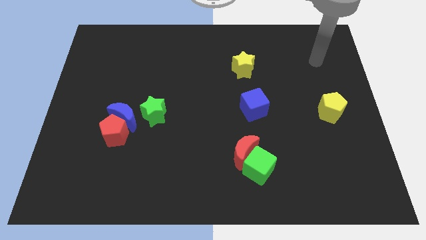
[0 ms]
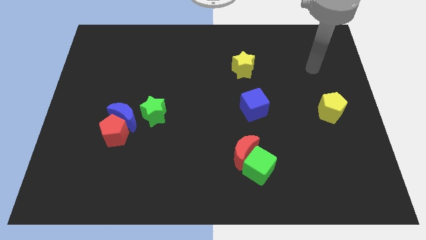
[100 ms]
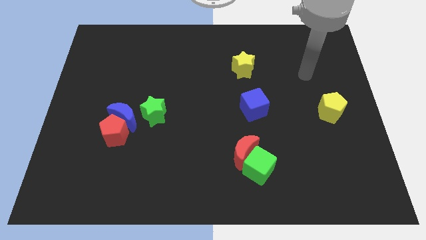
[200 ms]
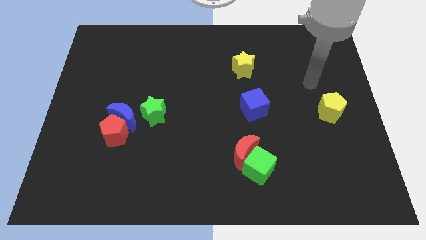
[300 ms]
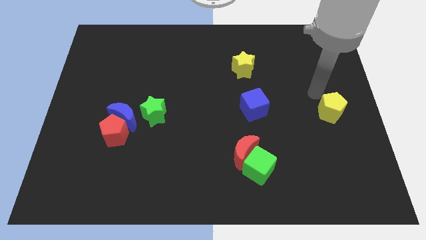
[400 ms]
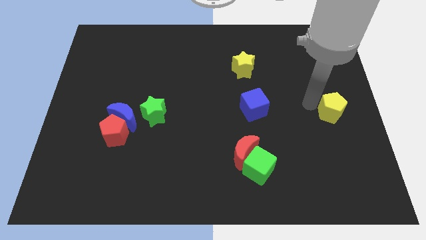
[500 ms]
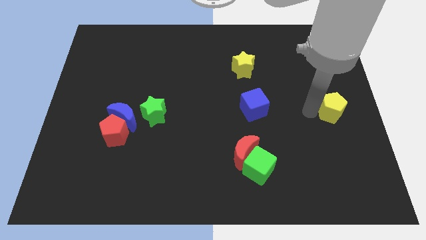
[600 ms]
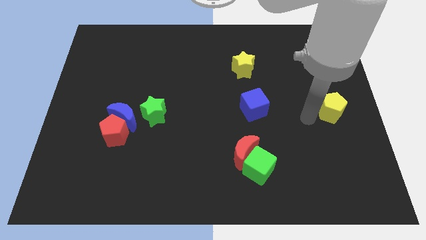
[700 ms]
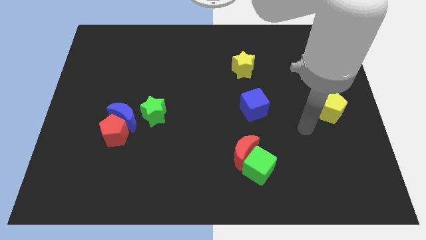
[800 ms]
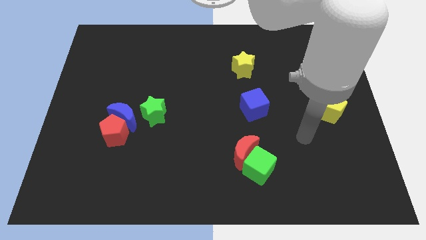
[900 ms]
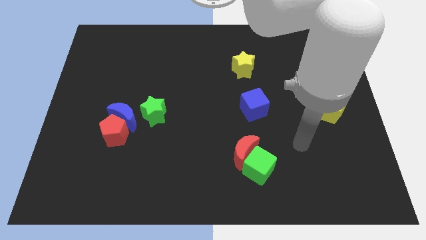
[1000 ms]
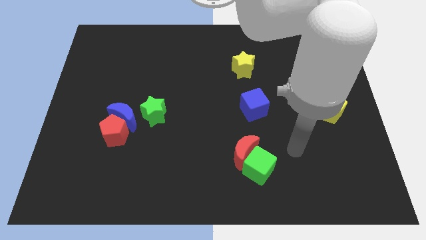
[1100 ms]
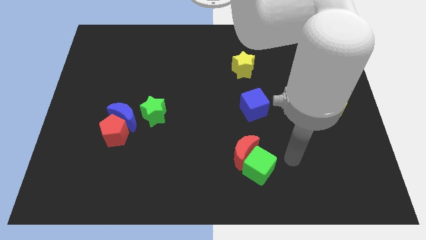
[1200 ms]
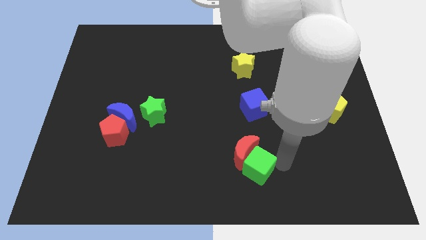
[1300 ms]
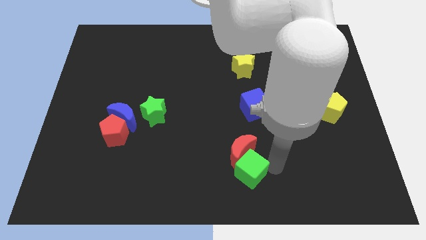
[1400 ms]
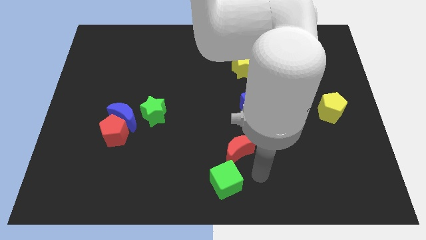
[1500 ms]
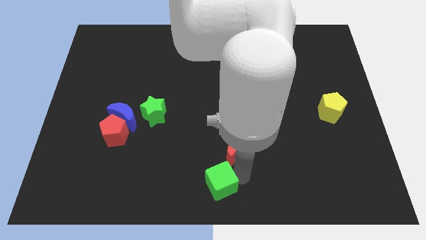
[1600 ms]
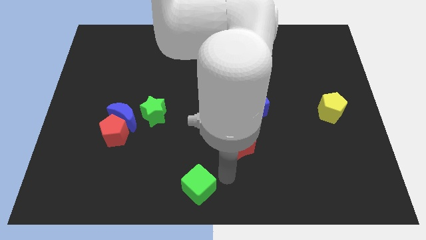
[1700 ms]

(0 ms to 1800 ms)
separate the red moon from the green cube

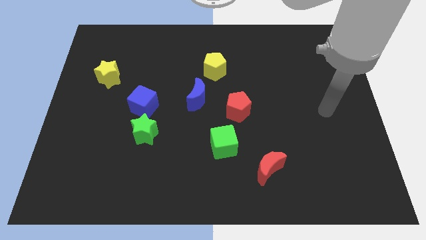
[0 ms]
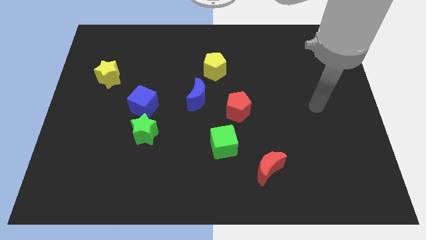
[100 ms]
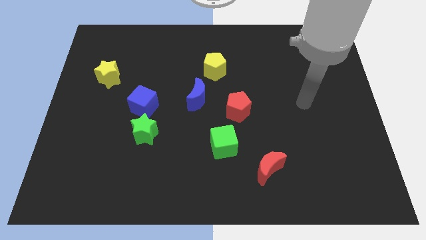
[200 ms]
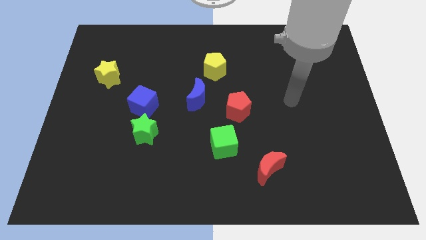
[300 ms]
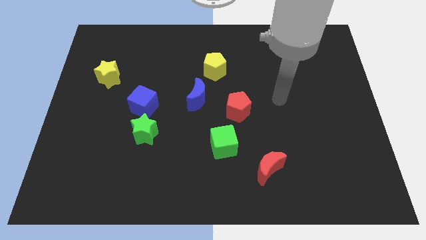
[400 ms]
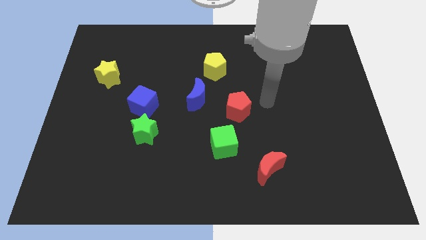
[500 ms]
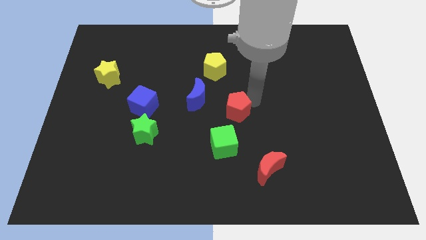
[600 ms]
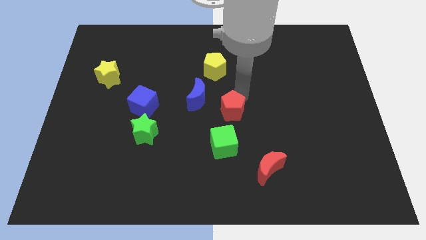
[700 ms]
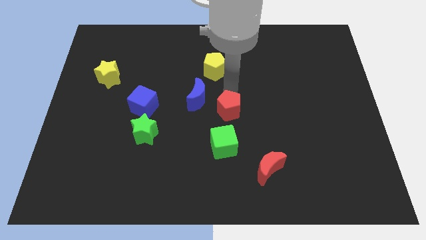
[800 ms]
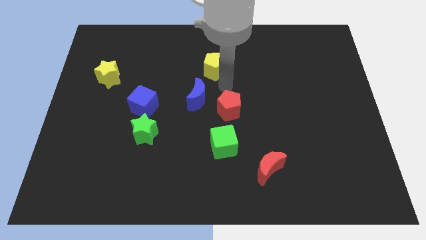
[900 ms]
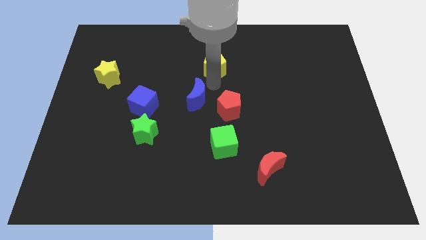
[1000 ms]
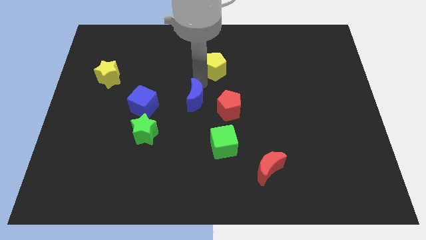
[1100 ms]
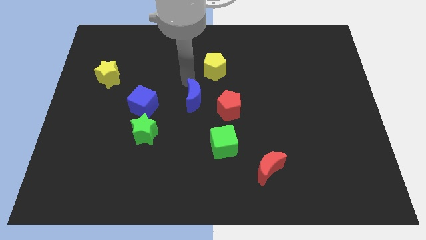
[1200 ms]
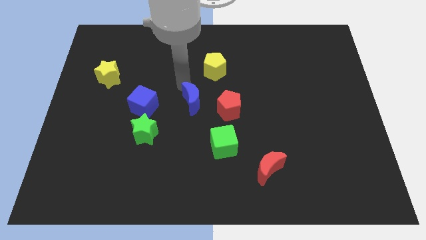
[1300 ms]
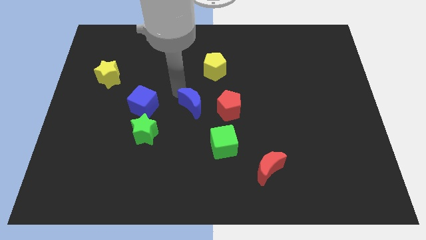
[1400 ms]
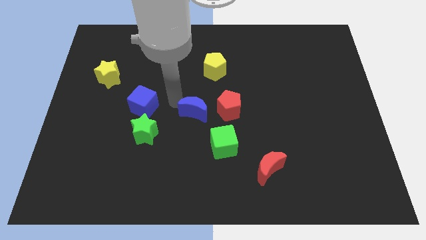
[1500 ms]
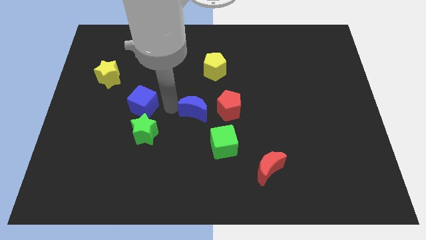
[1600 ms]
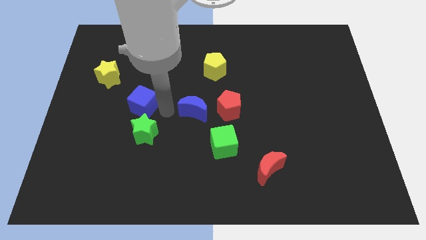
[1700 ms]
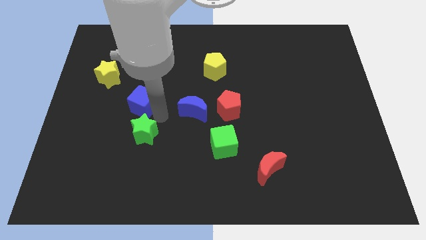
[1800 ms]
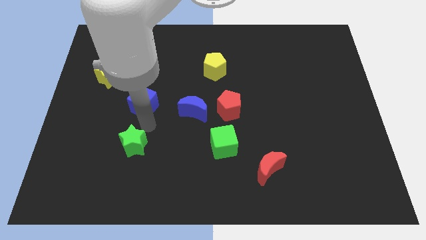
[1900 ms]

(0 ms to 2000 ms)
separate the blue cube from the green star

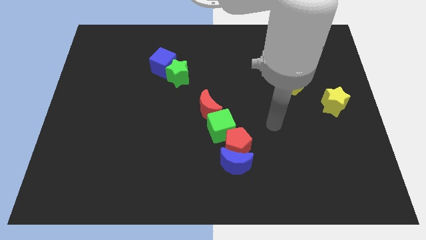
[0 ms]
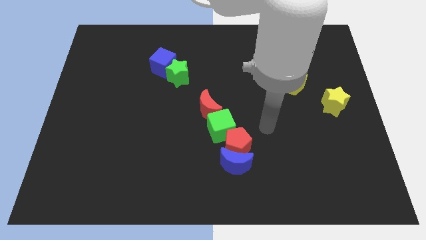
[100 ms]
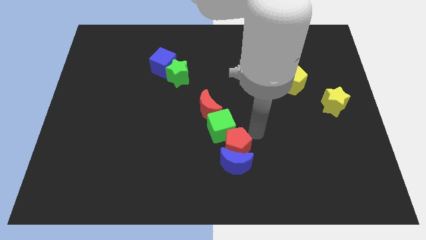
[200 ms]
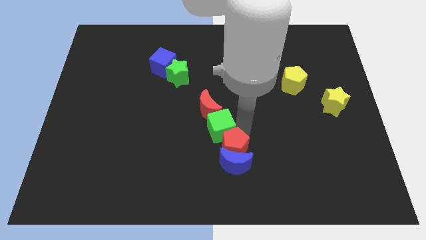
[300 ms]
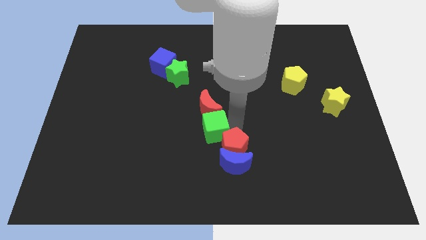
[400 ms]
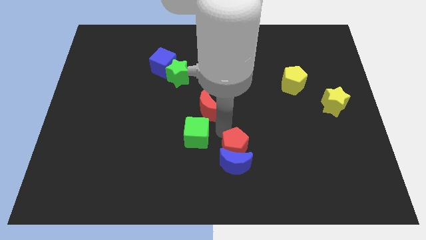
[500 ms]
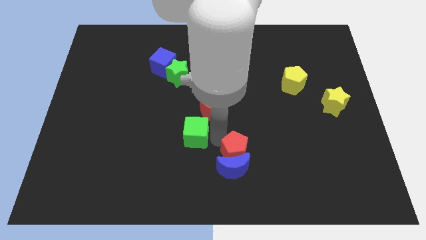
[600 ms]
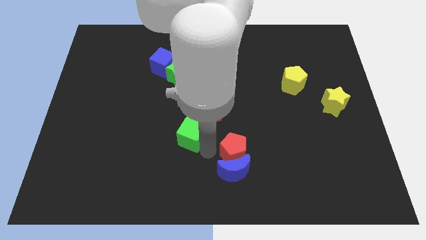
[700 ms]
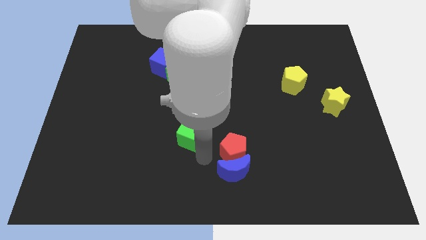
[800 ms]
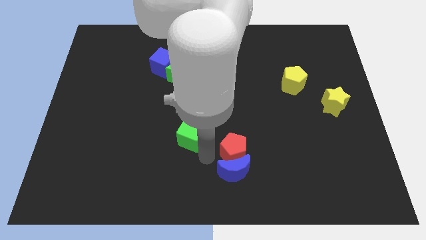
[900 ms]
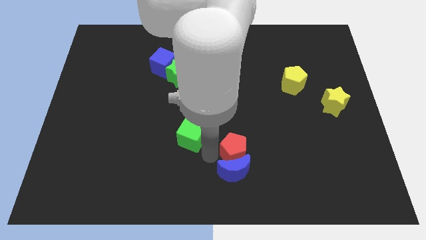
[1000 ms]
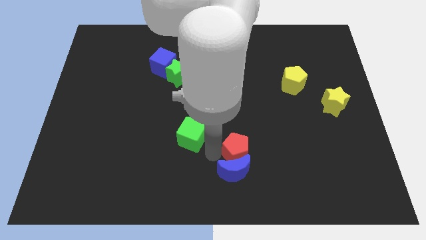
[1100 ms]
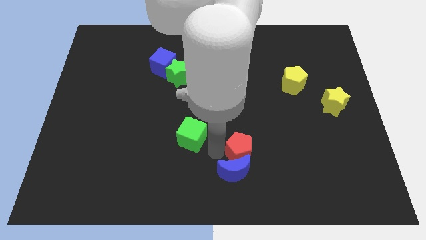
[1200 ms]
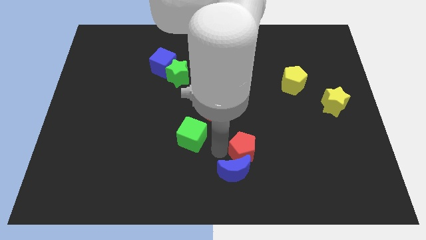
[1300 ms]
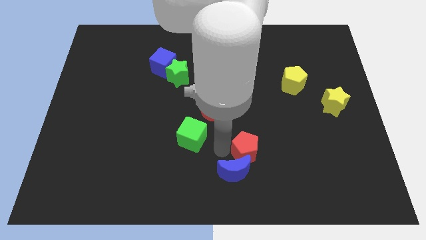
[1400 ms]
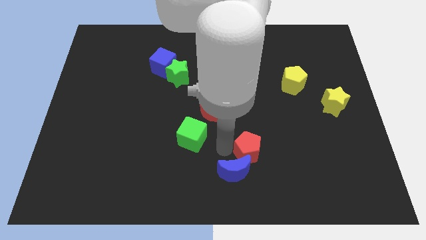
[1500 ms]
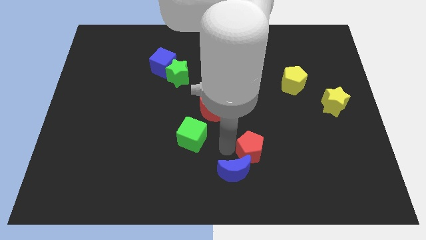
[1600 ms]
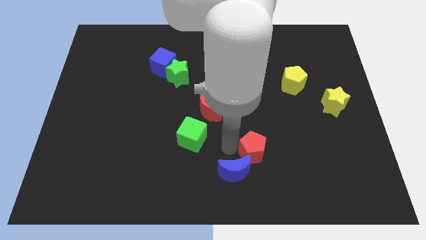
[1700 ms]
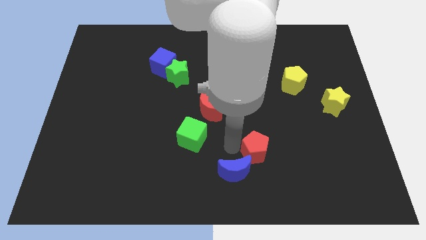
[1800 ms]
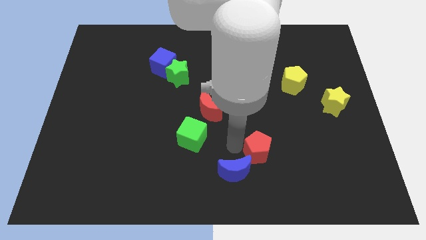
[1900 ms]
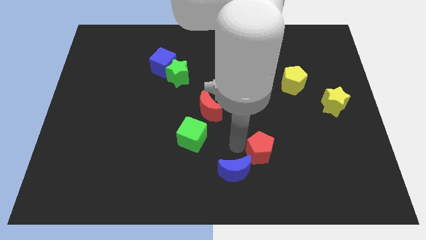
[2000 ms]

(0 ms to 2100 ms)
separate the red pentagon from the blue moon and green cube

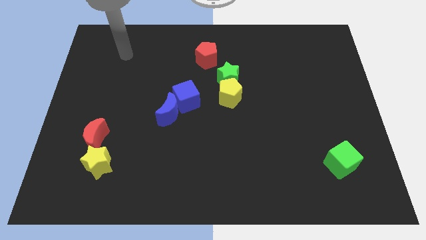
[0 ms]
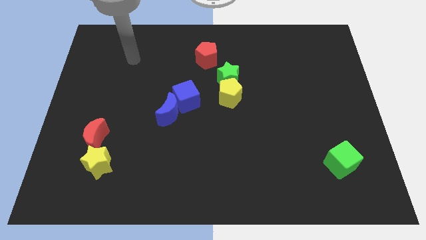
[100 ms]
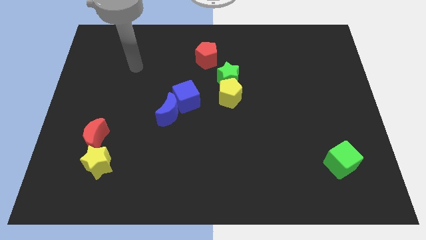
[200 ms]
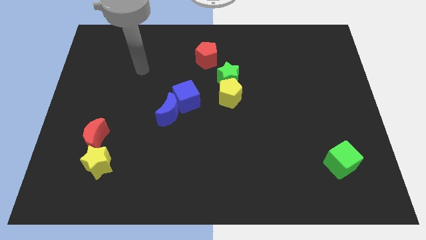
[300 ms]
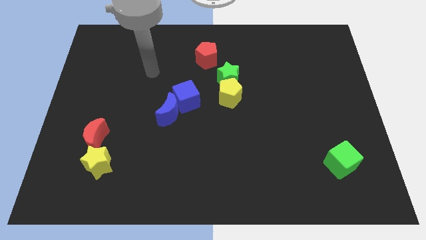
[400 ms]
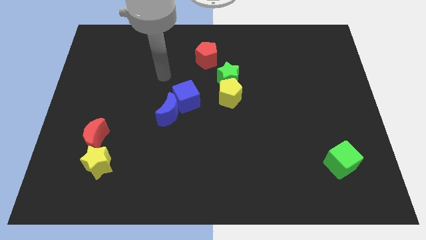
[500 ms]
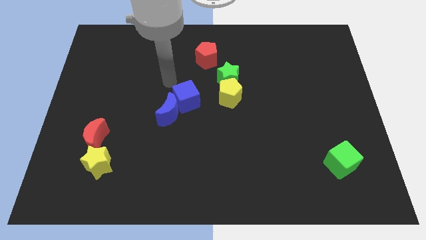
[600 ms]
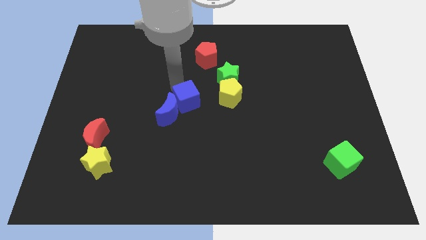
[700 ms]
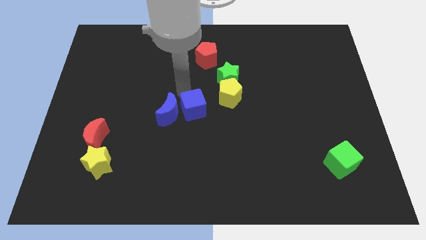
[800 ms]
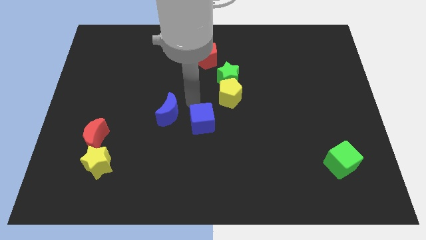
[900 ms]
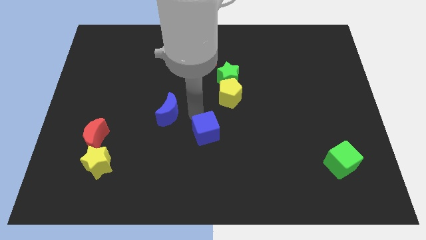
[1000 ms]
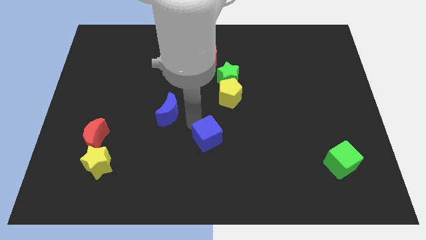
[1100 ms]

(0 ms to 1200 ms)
move the blue moon away from the blue cube

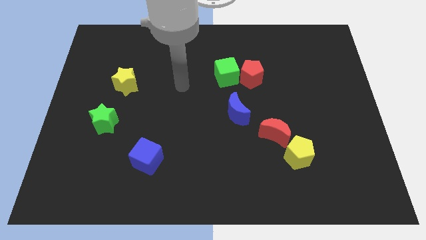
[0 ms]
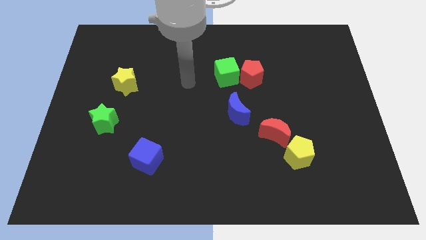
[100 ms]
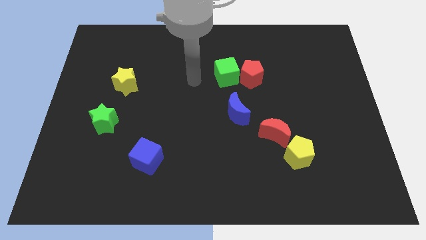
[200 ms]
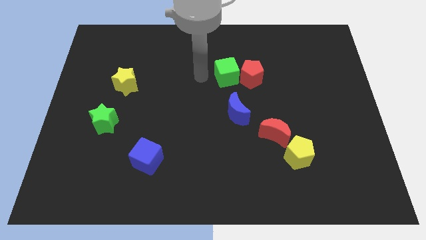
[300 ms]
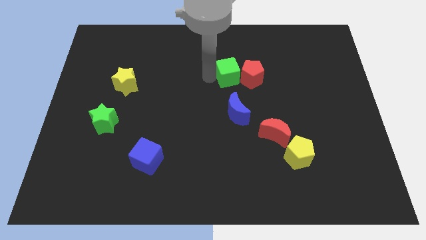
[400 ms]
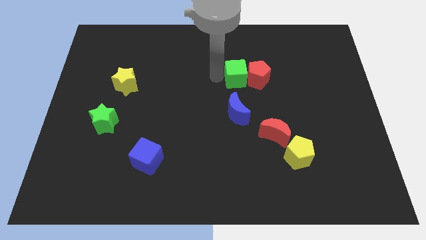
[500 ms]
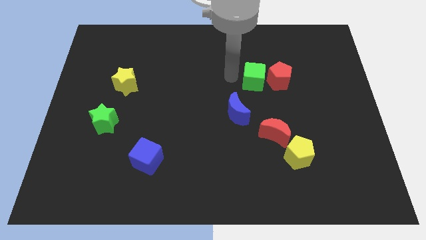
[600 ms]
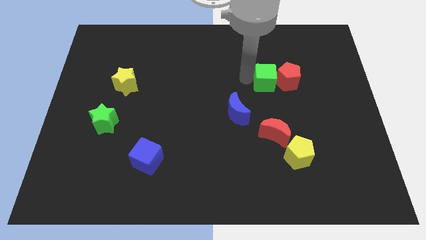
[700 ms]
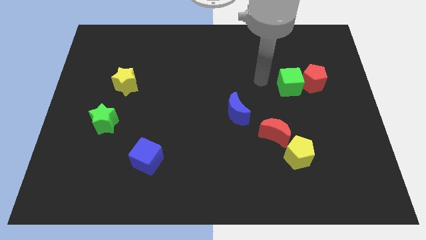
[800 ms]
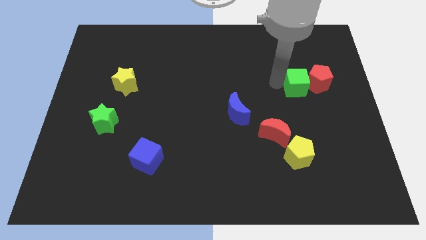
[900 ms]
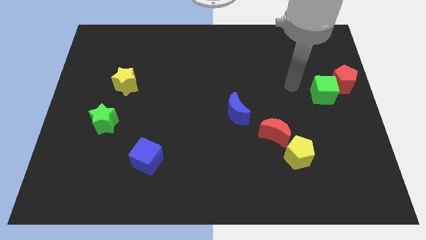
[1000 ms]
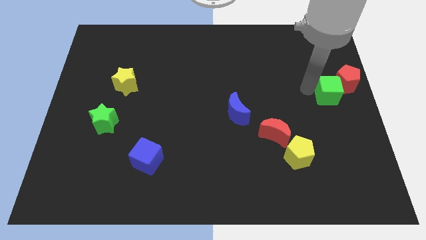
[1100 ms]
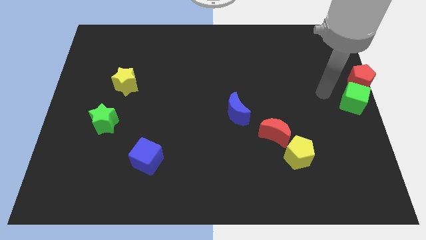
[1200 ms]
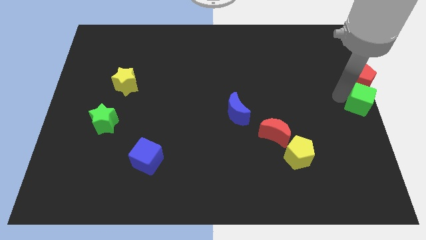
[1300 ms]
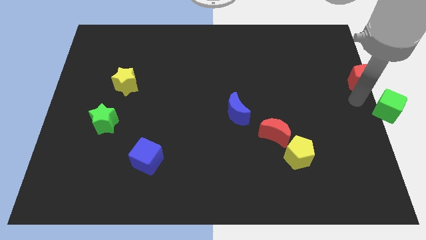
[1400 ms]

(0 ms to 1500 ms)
pull the red pentagon apart from the green cube

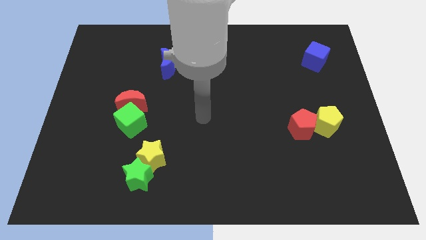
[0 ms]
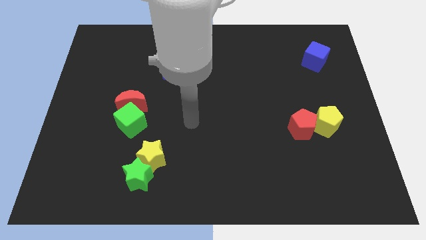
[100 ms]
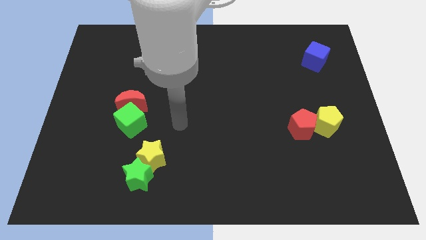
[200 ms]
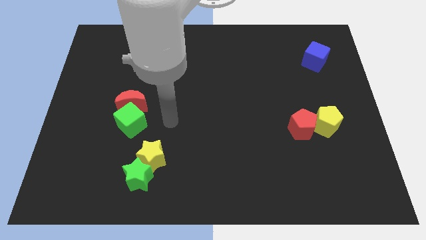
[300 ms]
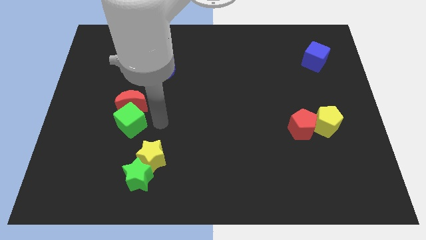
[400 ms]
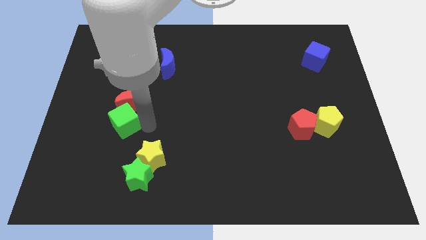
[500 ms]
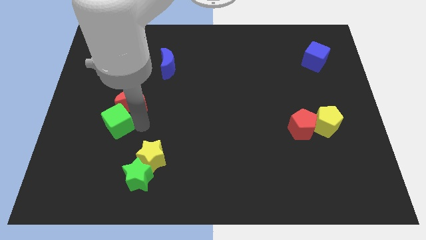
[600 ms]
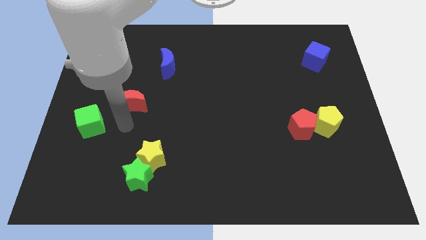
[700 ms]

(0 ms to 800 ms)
move the red moon away from the green cube
